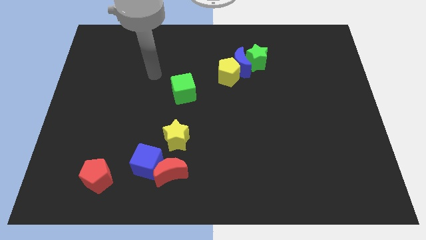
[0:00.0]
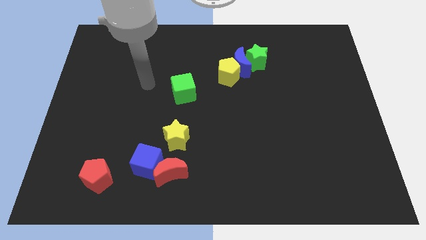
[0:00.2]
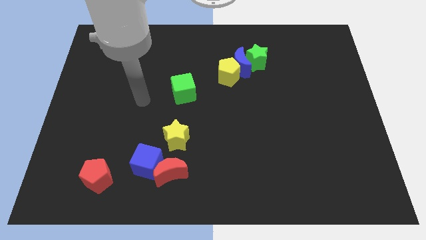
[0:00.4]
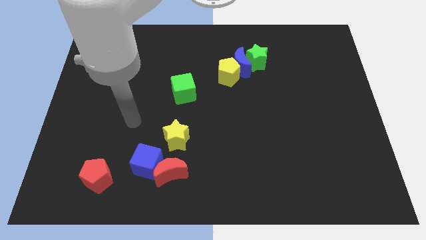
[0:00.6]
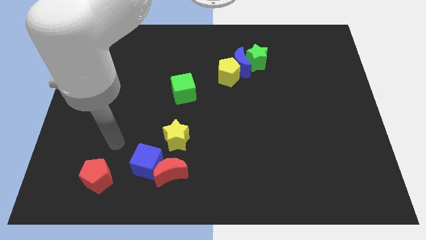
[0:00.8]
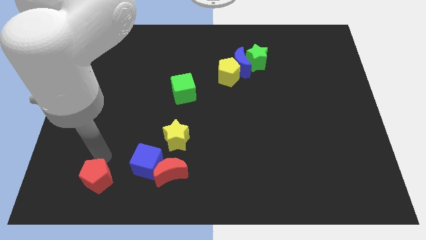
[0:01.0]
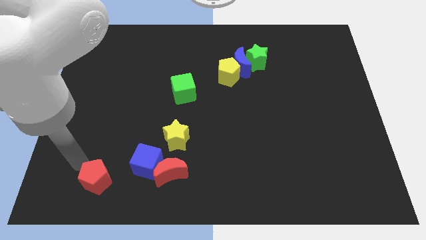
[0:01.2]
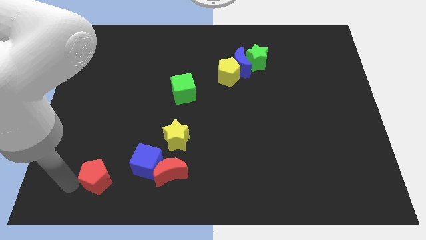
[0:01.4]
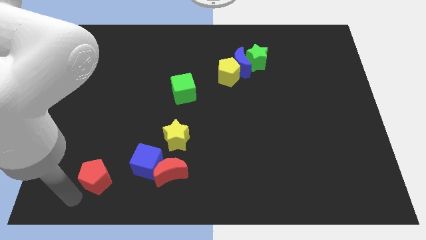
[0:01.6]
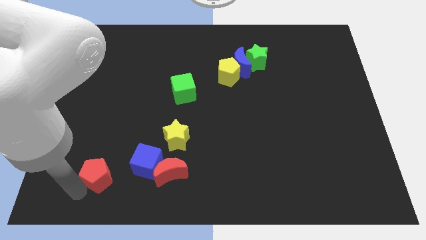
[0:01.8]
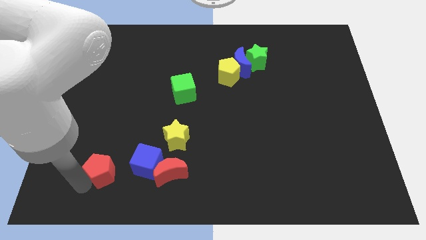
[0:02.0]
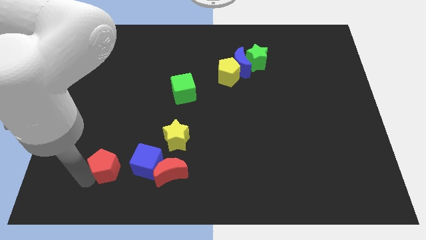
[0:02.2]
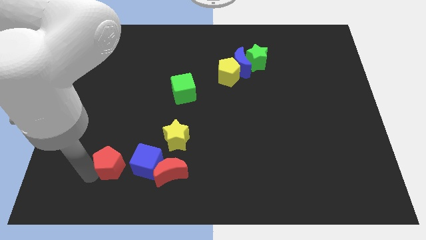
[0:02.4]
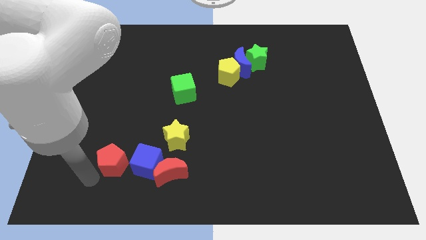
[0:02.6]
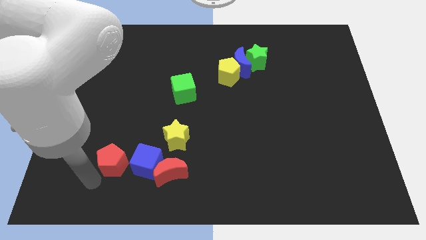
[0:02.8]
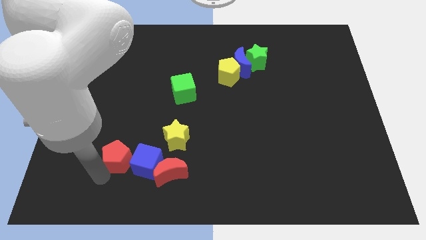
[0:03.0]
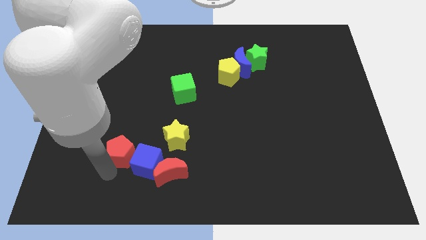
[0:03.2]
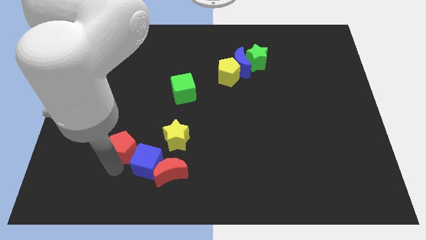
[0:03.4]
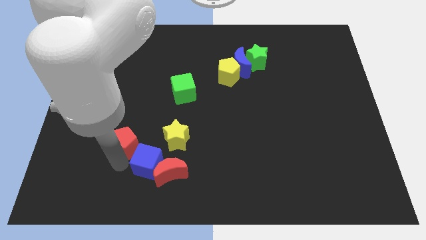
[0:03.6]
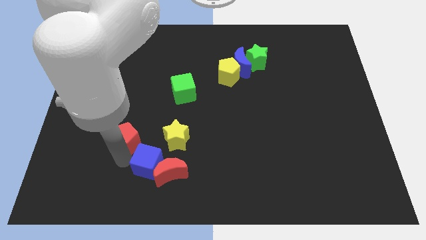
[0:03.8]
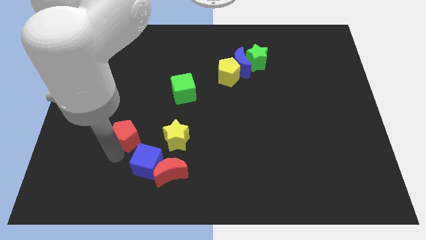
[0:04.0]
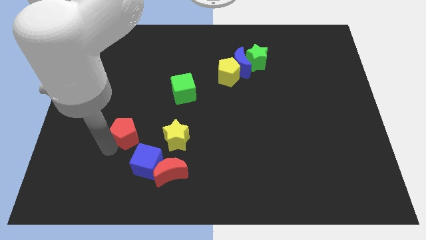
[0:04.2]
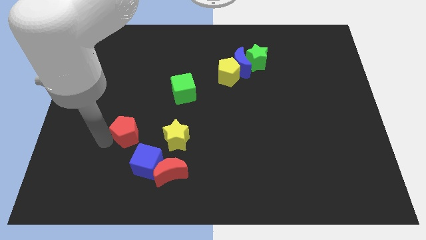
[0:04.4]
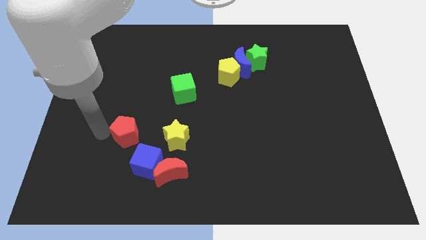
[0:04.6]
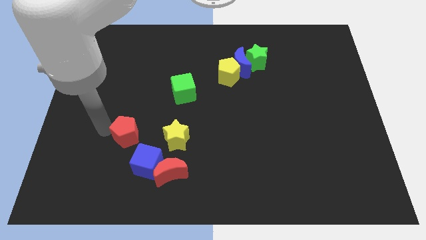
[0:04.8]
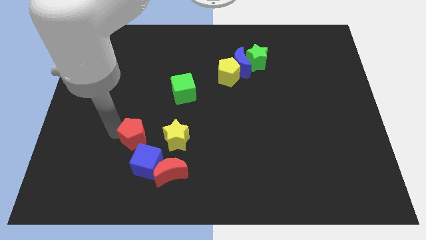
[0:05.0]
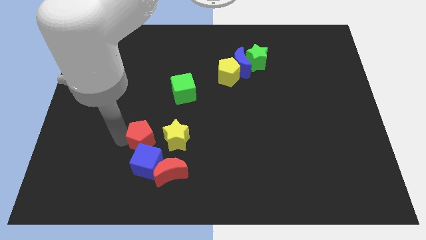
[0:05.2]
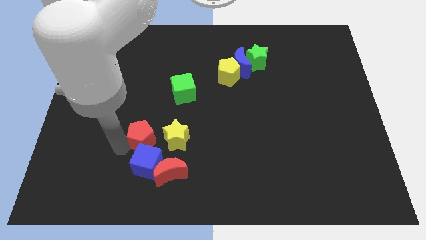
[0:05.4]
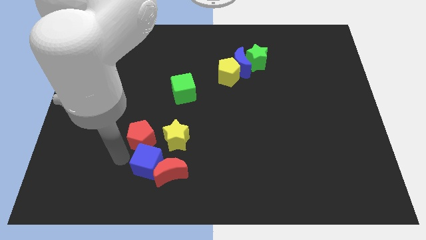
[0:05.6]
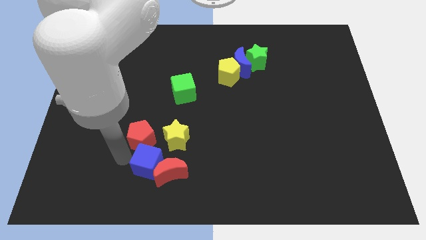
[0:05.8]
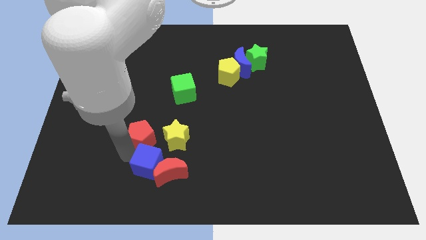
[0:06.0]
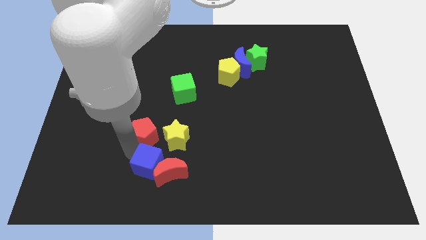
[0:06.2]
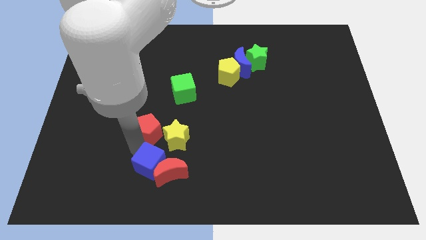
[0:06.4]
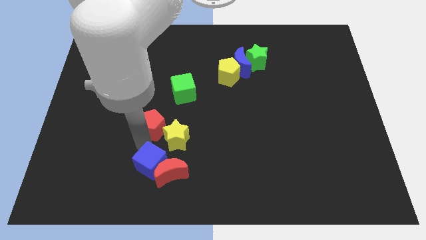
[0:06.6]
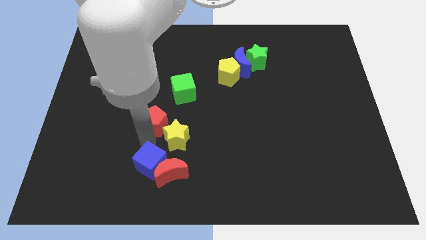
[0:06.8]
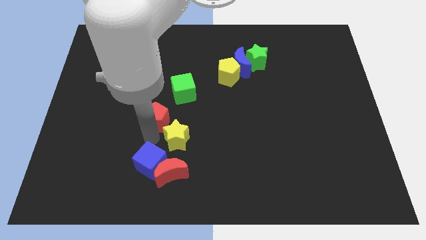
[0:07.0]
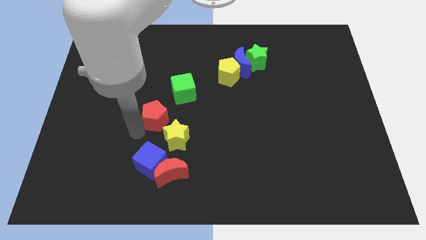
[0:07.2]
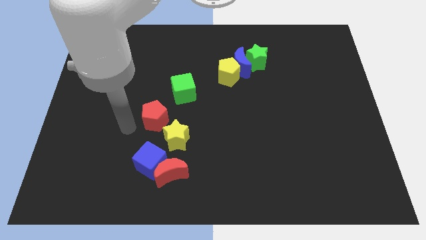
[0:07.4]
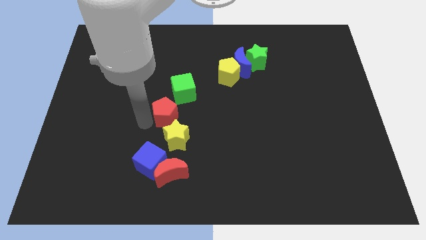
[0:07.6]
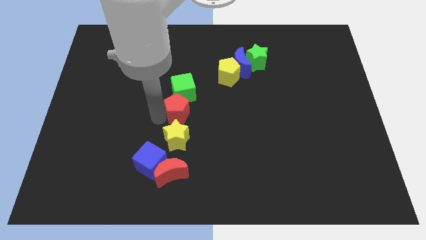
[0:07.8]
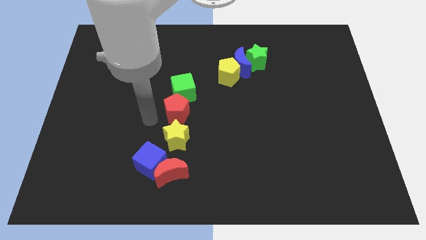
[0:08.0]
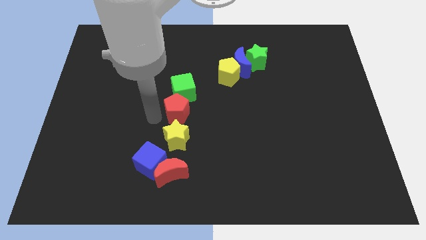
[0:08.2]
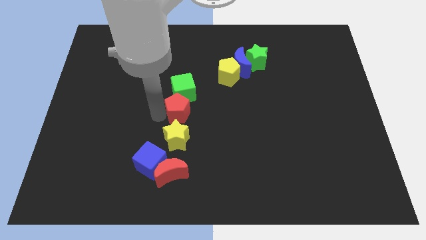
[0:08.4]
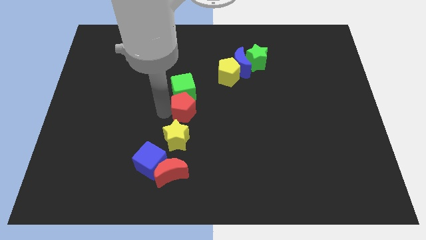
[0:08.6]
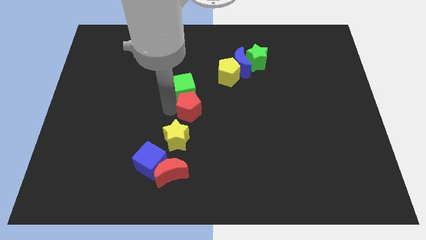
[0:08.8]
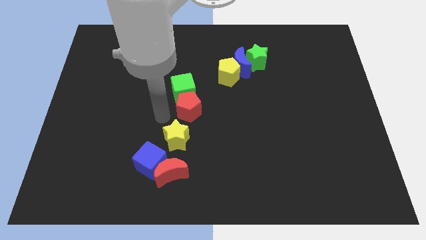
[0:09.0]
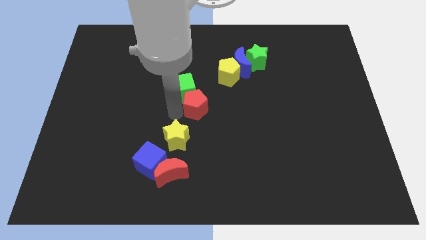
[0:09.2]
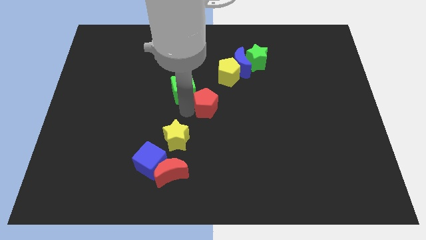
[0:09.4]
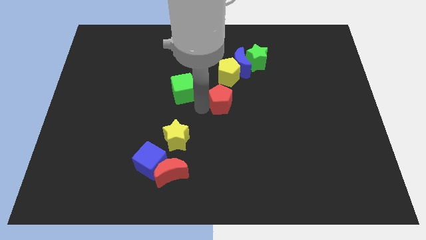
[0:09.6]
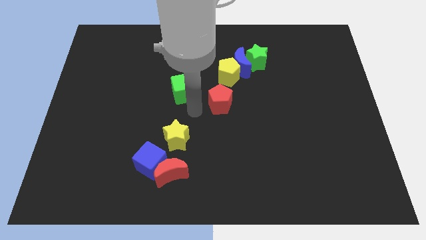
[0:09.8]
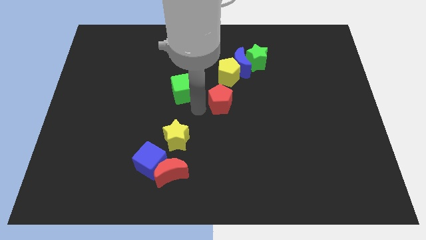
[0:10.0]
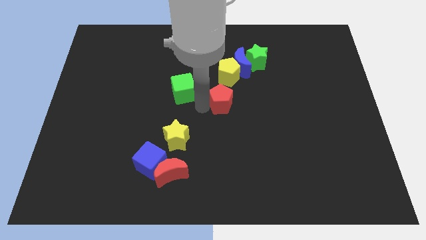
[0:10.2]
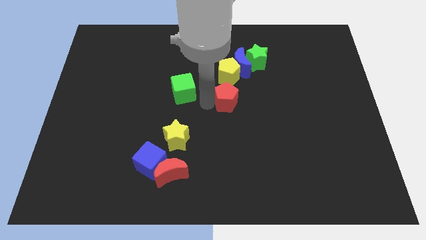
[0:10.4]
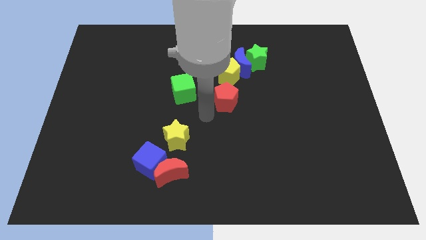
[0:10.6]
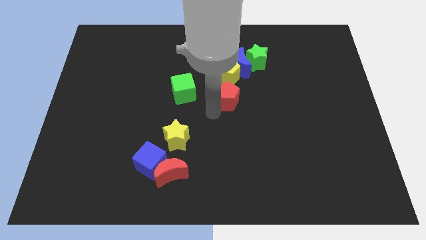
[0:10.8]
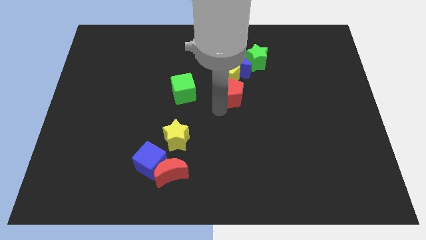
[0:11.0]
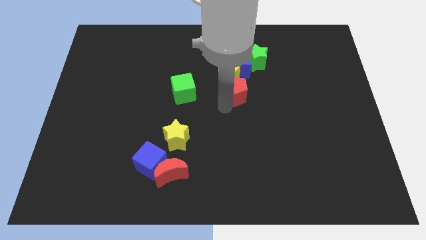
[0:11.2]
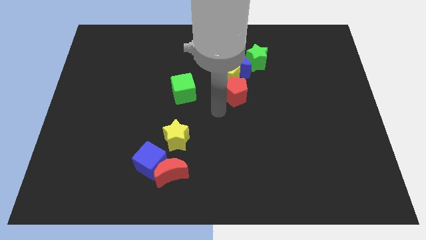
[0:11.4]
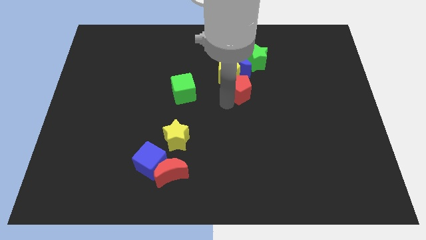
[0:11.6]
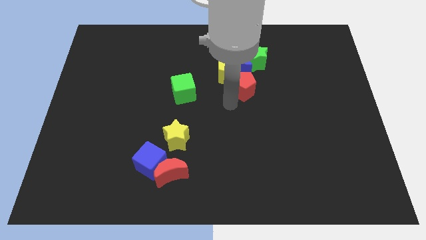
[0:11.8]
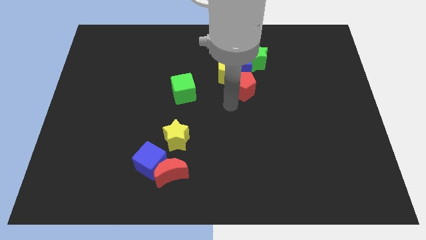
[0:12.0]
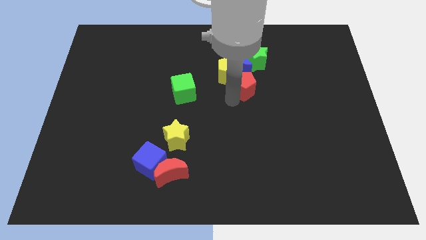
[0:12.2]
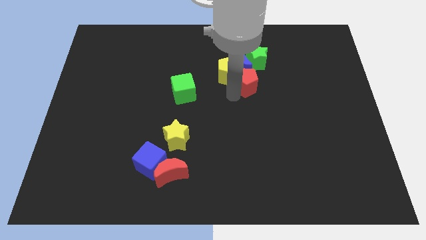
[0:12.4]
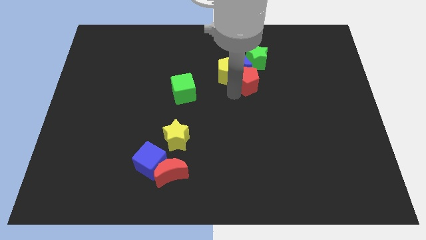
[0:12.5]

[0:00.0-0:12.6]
slide the red pentagon to the blue moon

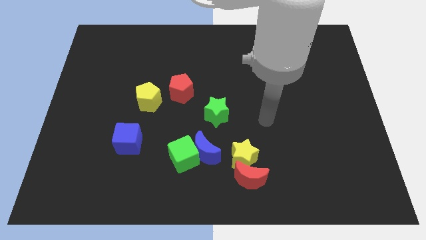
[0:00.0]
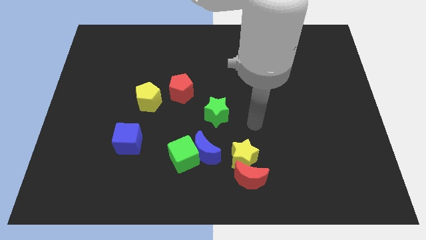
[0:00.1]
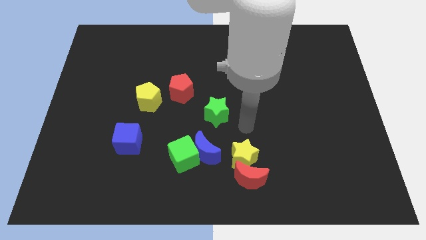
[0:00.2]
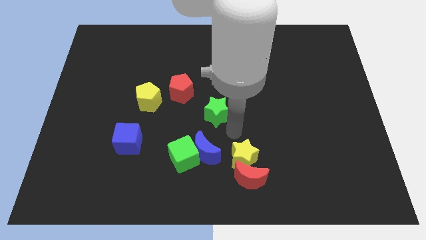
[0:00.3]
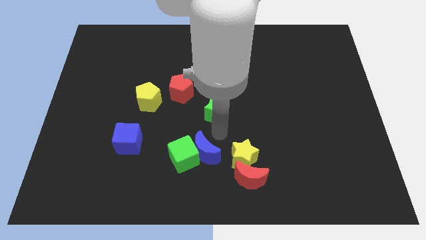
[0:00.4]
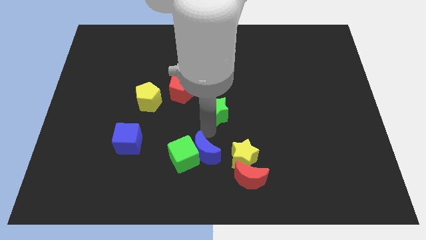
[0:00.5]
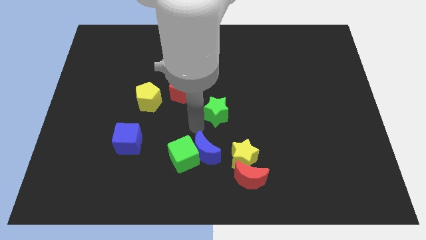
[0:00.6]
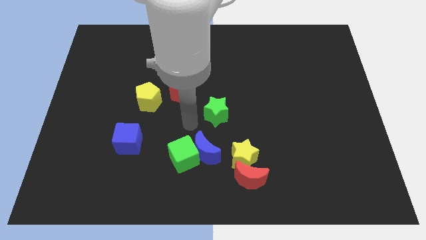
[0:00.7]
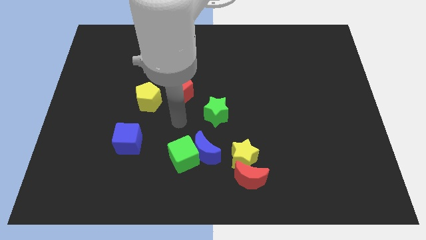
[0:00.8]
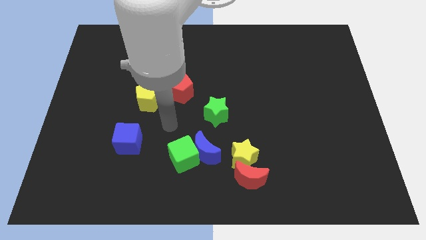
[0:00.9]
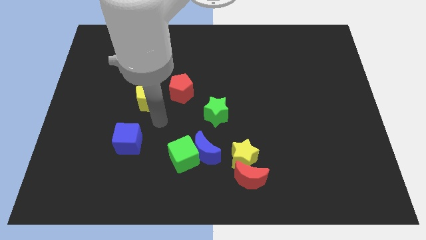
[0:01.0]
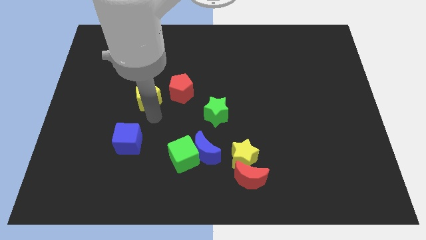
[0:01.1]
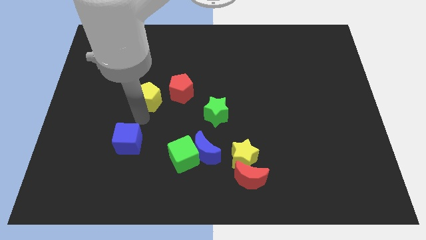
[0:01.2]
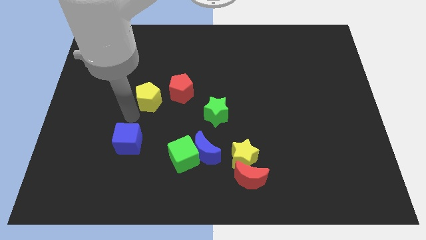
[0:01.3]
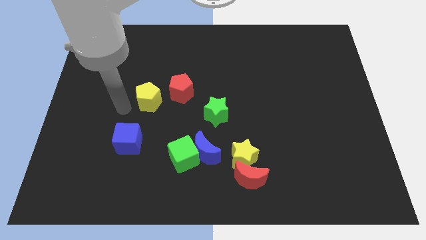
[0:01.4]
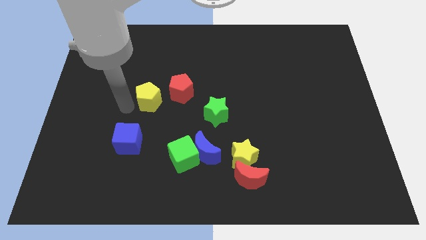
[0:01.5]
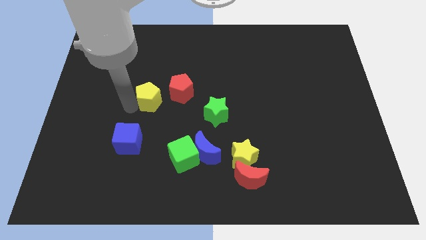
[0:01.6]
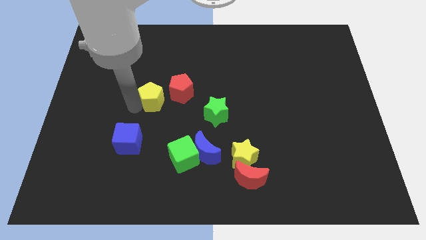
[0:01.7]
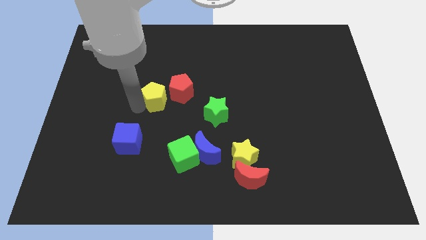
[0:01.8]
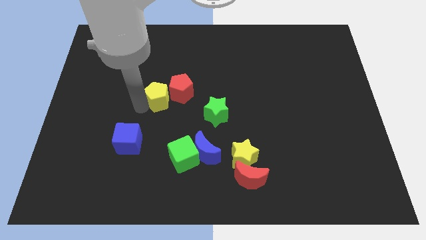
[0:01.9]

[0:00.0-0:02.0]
push the yellow pentagon to the red pentagon
